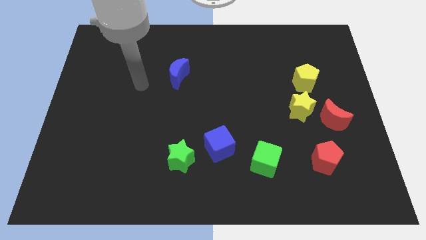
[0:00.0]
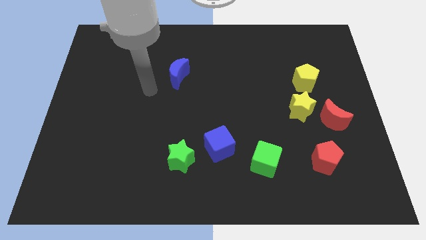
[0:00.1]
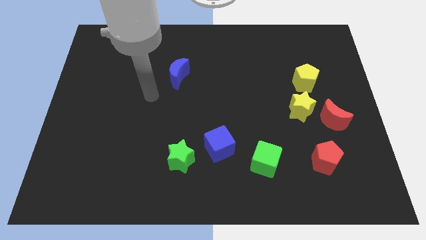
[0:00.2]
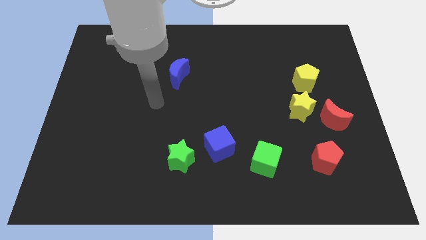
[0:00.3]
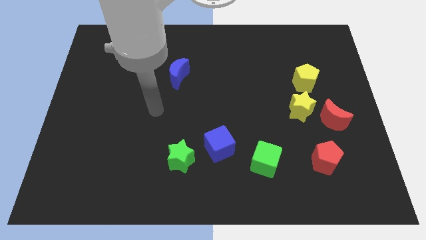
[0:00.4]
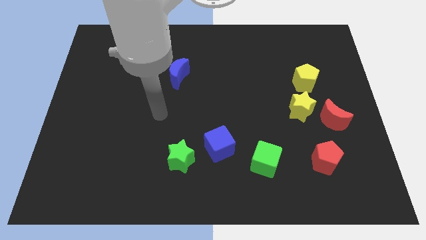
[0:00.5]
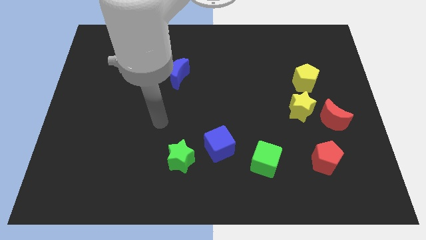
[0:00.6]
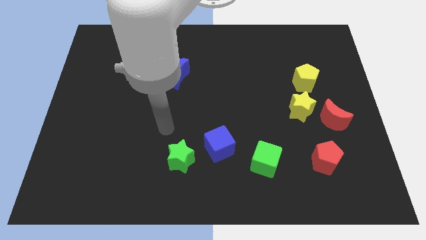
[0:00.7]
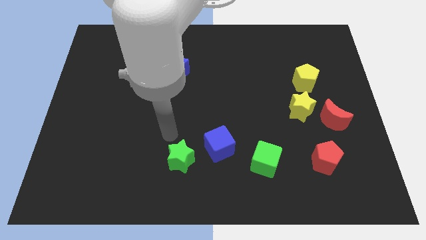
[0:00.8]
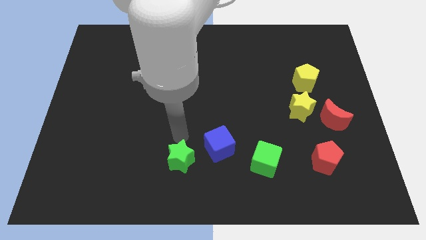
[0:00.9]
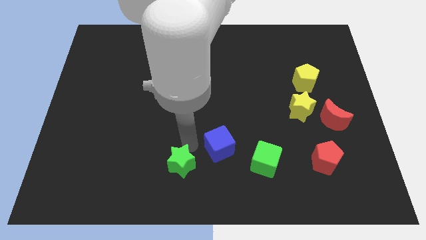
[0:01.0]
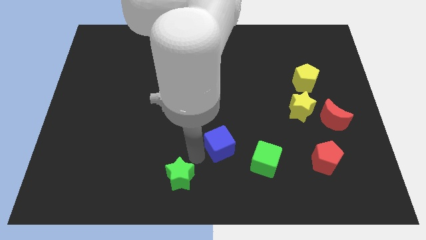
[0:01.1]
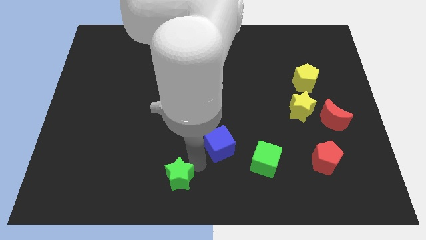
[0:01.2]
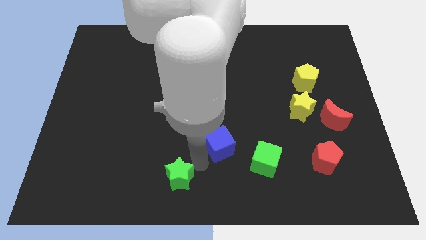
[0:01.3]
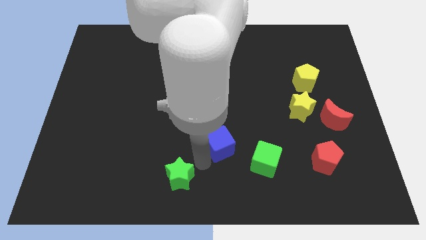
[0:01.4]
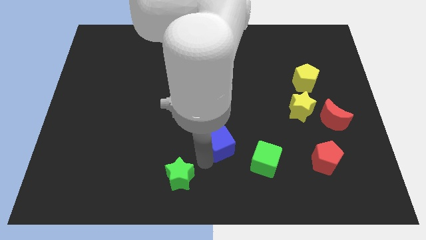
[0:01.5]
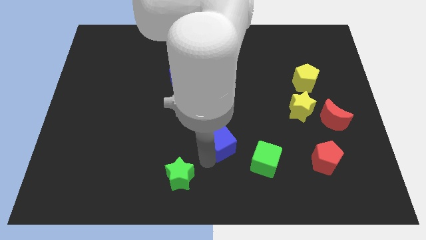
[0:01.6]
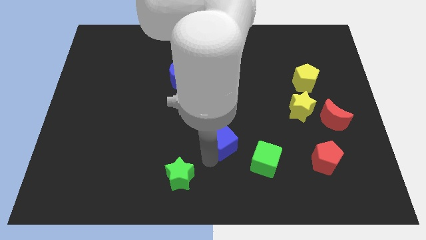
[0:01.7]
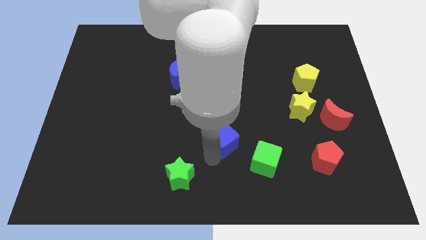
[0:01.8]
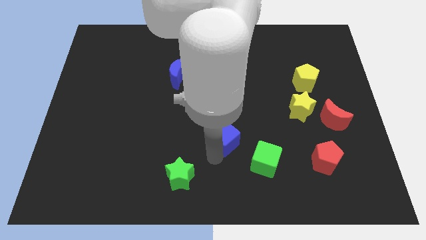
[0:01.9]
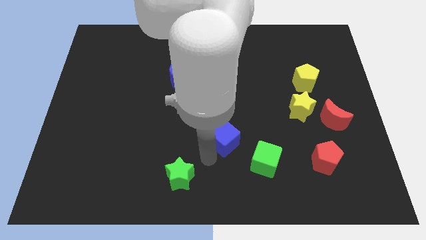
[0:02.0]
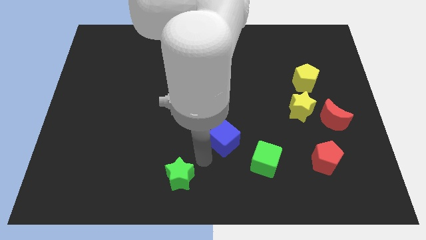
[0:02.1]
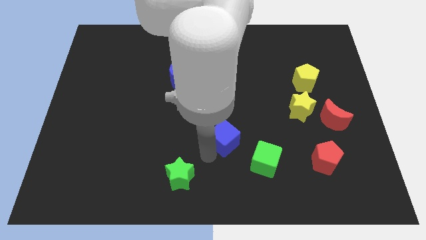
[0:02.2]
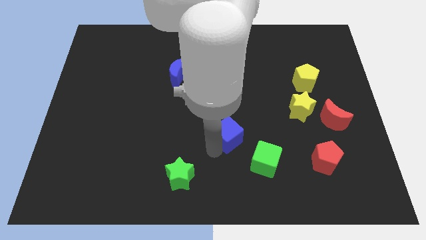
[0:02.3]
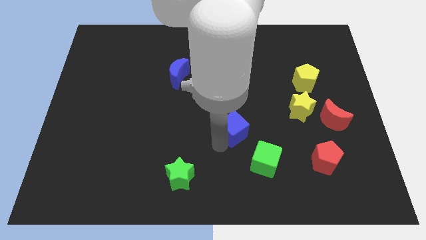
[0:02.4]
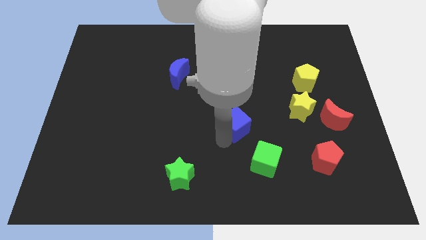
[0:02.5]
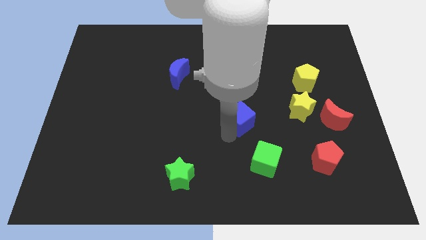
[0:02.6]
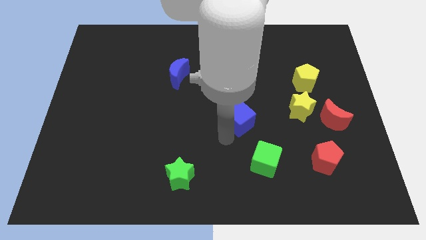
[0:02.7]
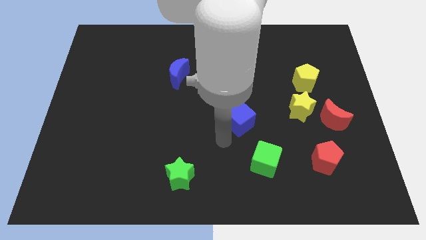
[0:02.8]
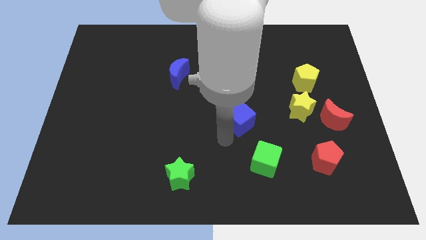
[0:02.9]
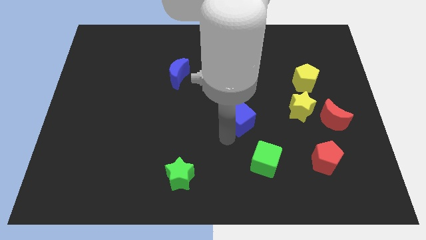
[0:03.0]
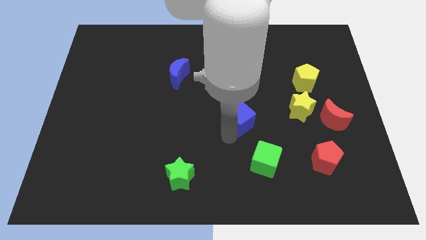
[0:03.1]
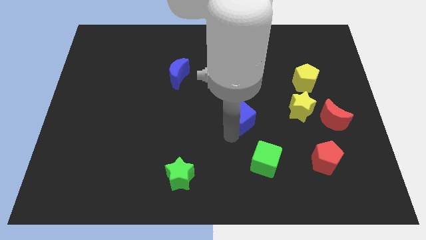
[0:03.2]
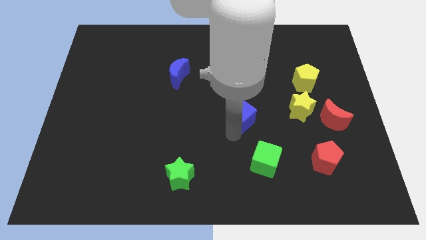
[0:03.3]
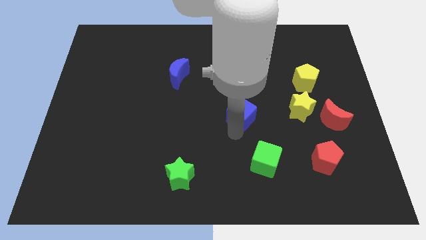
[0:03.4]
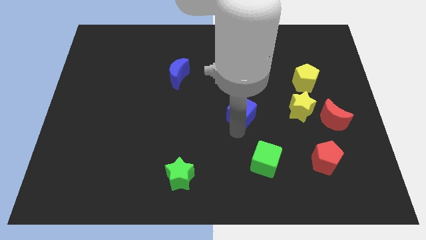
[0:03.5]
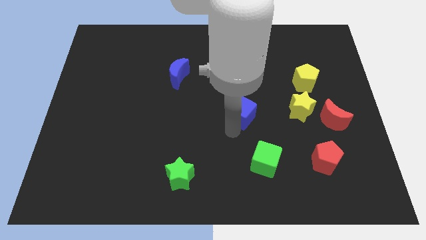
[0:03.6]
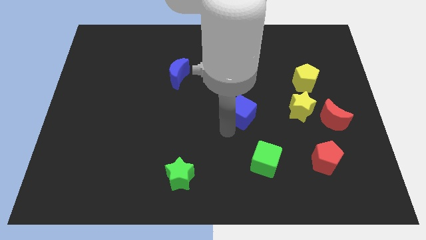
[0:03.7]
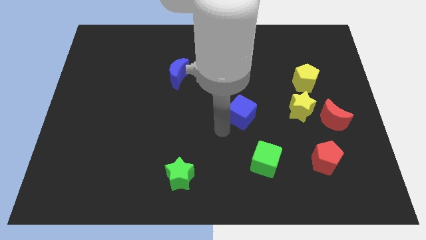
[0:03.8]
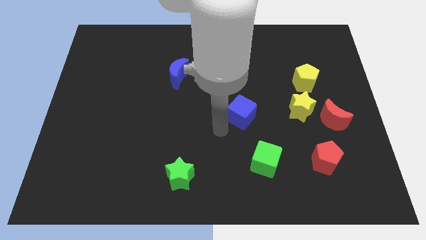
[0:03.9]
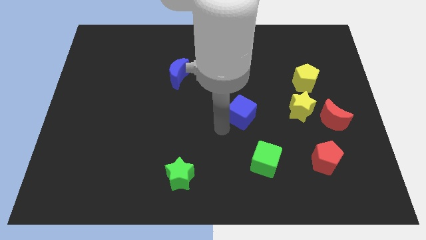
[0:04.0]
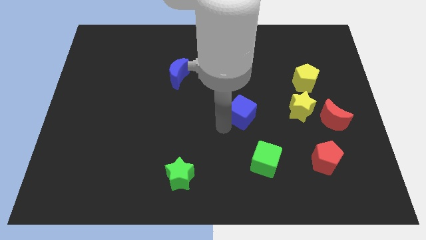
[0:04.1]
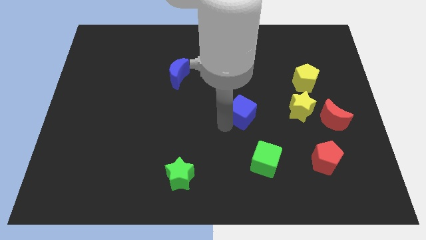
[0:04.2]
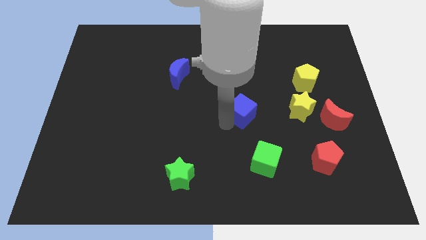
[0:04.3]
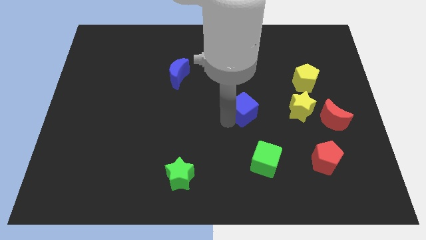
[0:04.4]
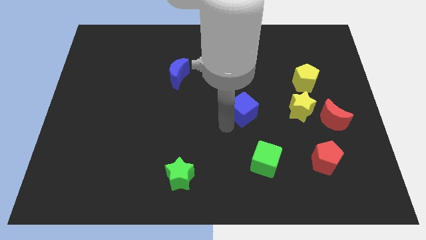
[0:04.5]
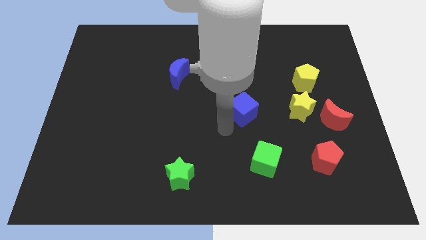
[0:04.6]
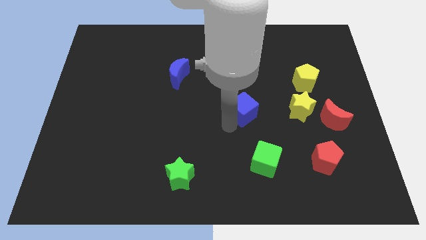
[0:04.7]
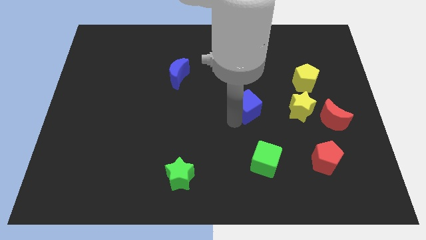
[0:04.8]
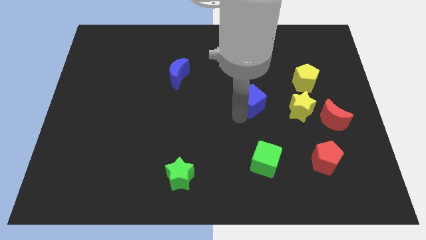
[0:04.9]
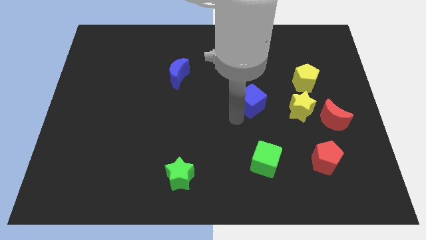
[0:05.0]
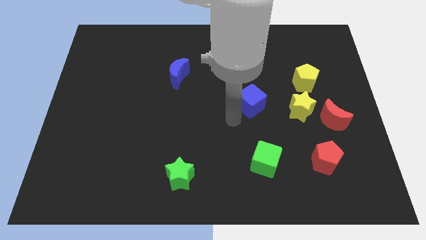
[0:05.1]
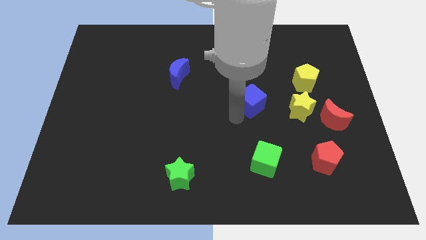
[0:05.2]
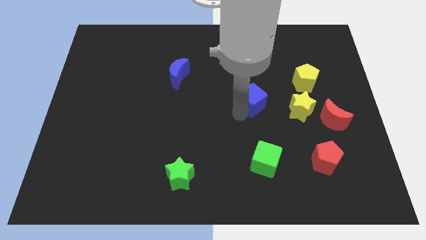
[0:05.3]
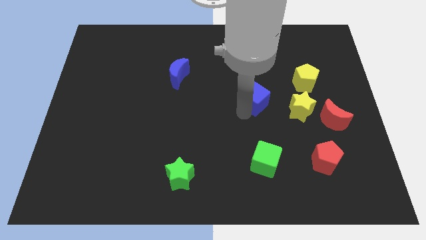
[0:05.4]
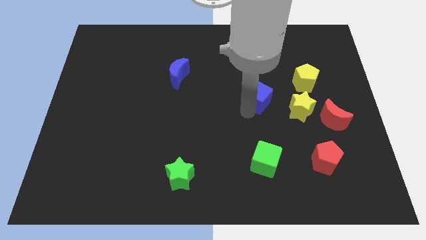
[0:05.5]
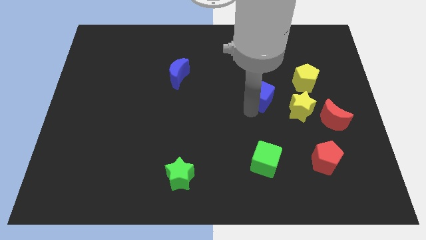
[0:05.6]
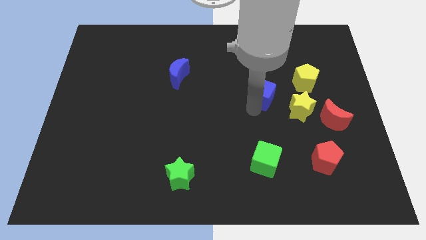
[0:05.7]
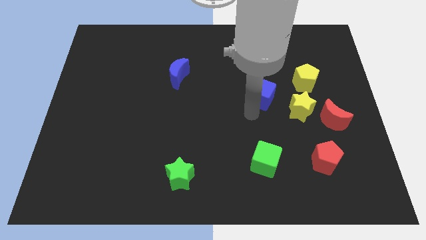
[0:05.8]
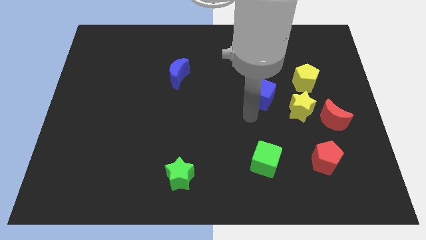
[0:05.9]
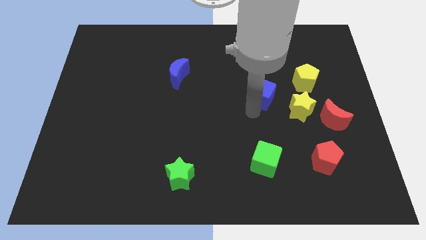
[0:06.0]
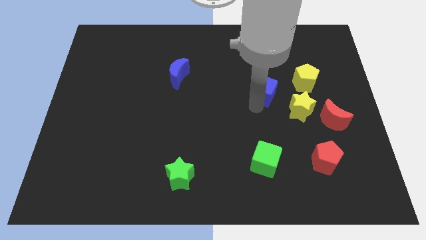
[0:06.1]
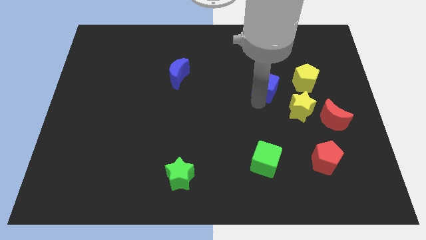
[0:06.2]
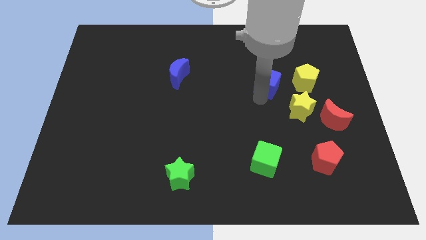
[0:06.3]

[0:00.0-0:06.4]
push the blue cube up and then right

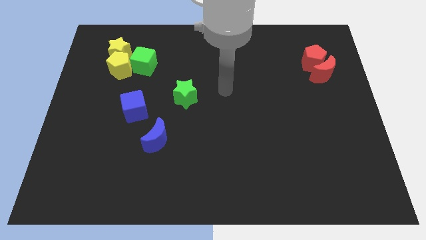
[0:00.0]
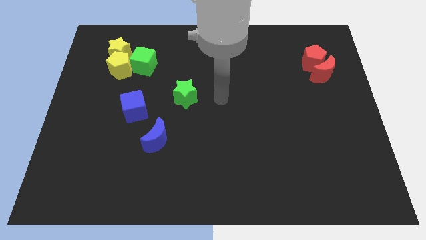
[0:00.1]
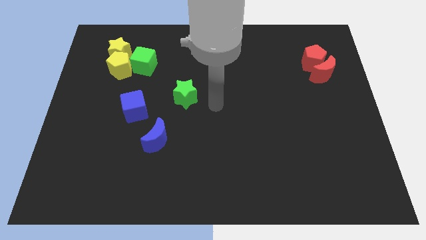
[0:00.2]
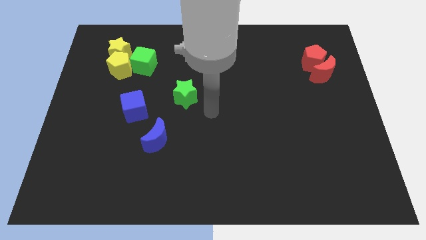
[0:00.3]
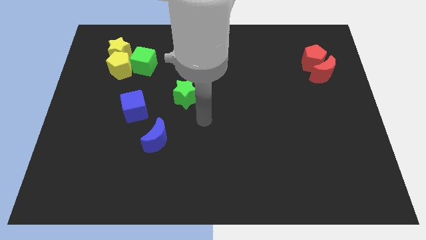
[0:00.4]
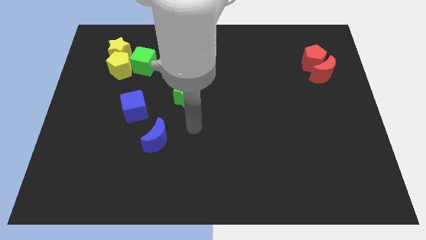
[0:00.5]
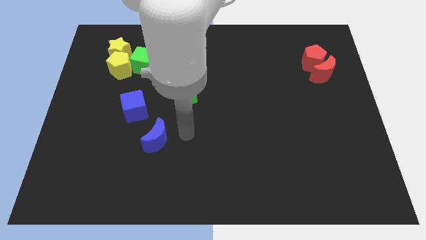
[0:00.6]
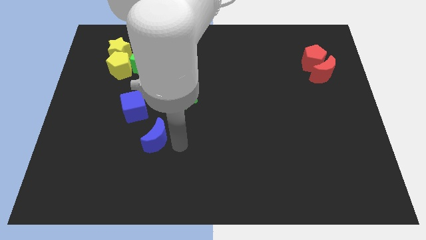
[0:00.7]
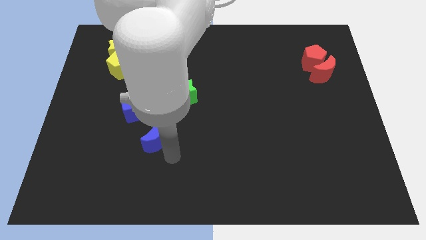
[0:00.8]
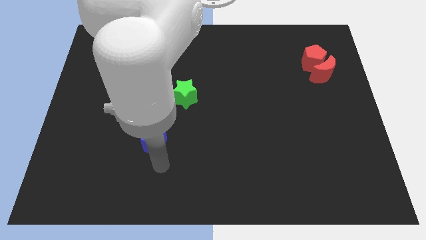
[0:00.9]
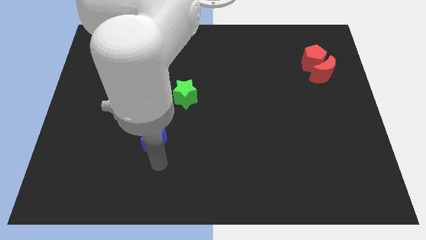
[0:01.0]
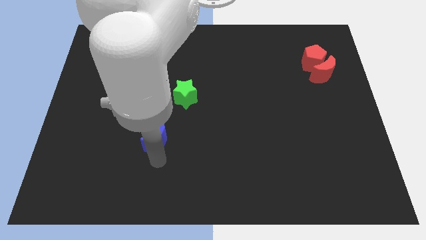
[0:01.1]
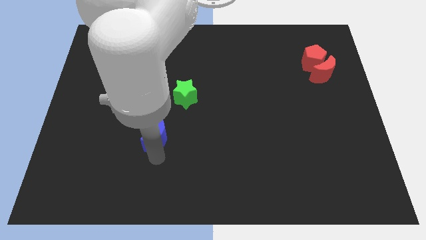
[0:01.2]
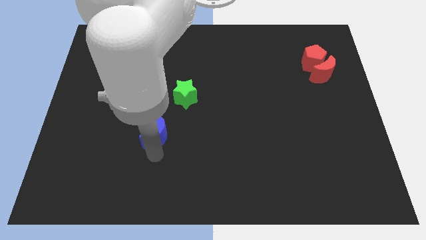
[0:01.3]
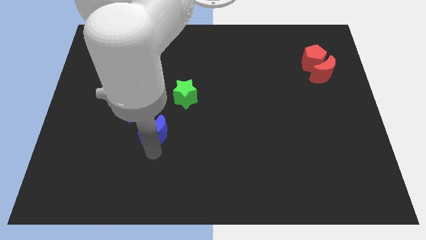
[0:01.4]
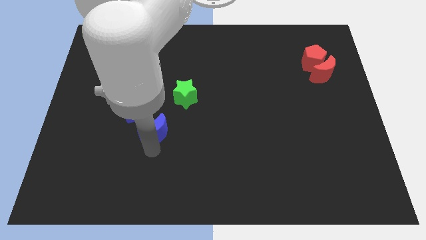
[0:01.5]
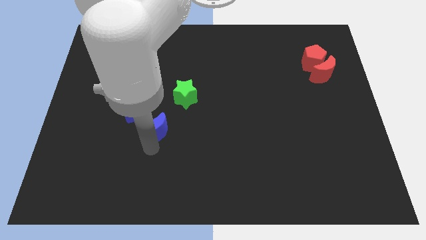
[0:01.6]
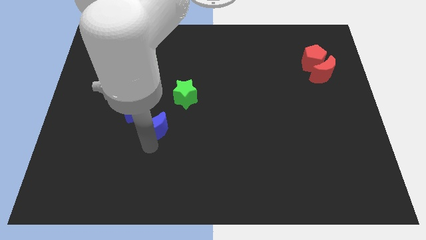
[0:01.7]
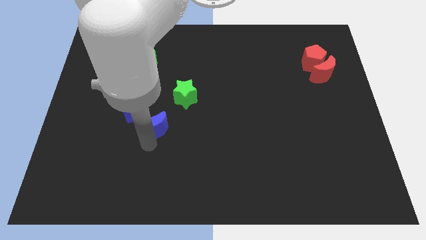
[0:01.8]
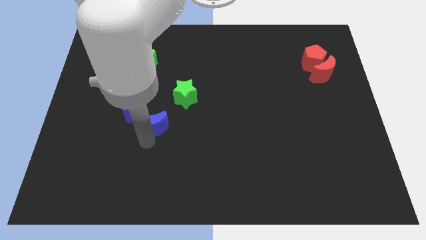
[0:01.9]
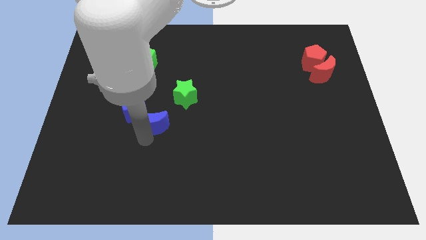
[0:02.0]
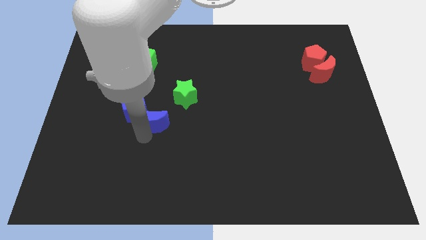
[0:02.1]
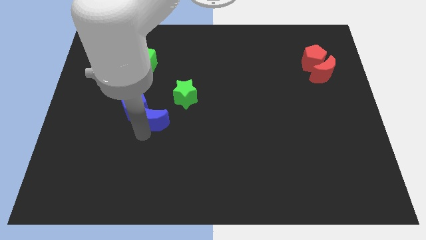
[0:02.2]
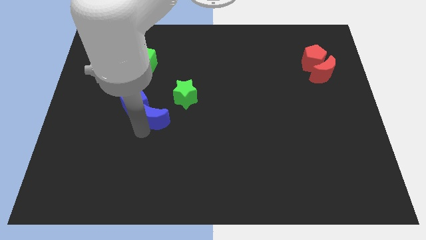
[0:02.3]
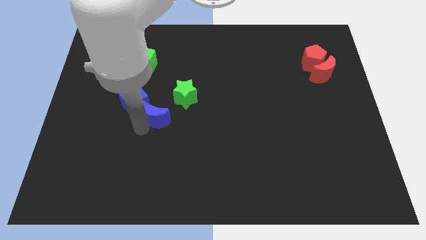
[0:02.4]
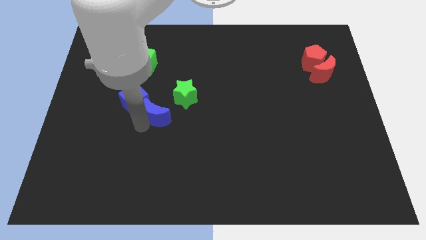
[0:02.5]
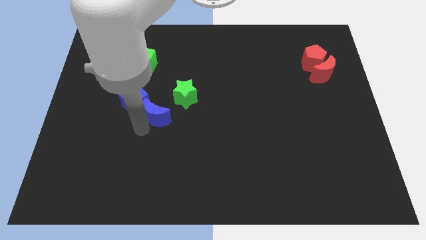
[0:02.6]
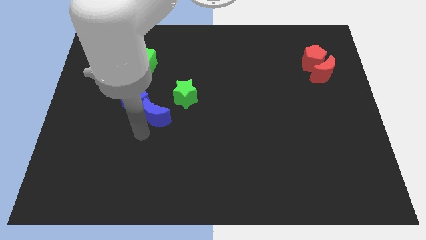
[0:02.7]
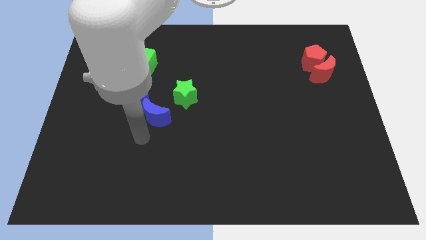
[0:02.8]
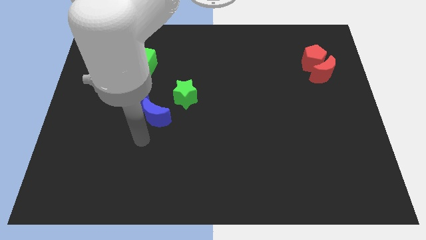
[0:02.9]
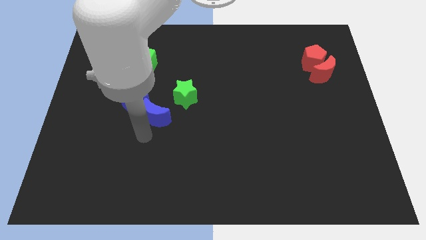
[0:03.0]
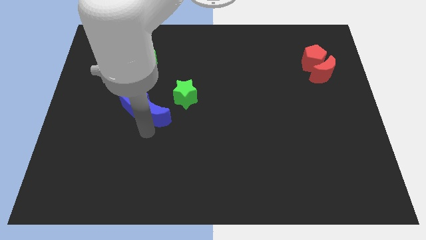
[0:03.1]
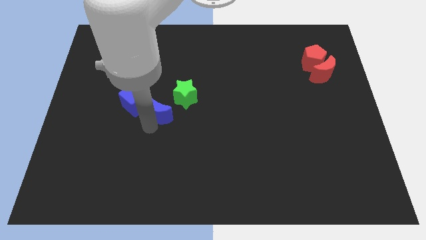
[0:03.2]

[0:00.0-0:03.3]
move the blue moon up somewhat
